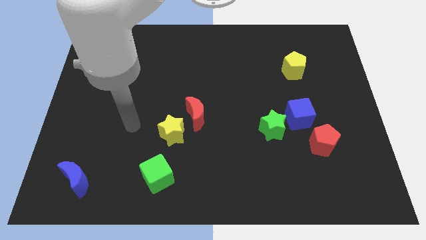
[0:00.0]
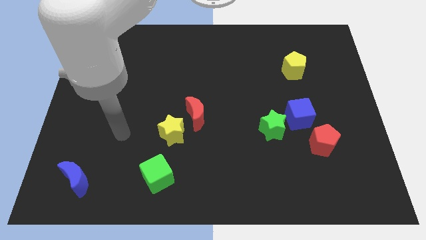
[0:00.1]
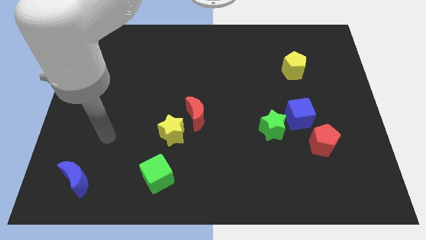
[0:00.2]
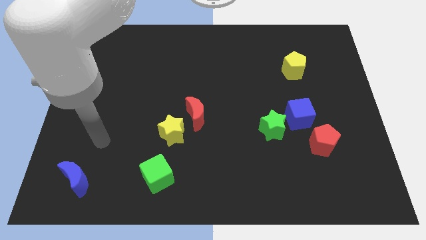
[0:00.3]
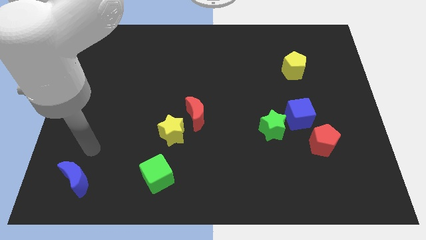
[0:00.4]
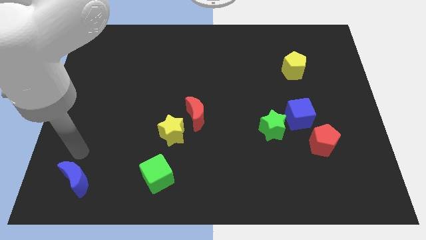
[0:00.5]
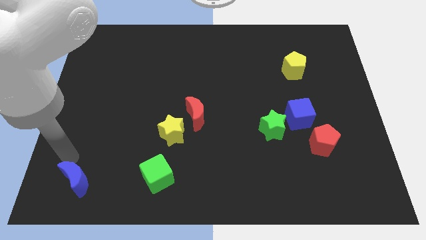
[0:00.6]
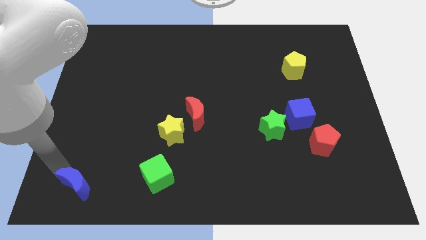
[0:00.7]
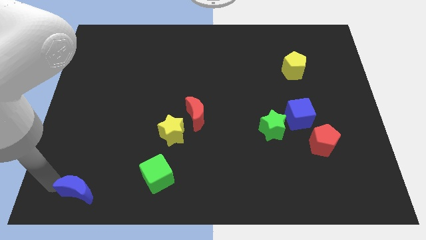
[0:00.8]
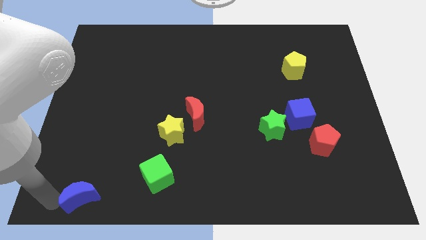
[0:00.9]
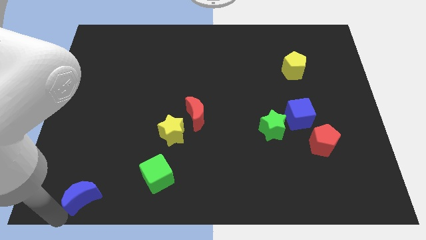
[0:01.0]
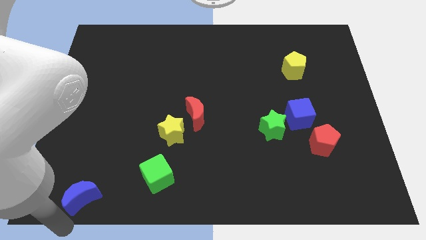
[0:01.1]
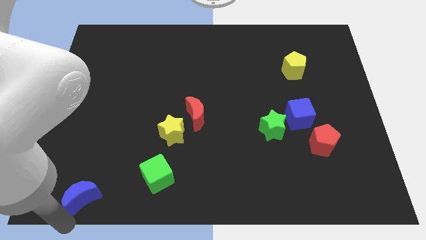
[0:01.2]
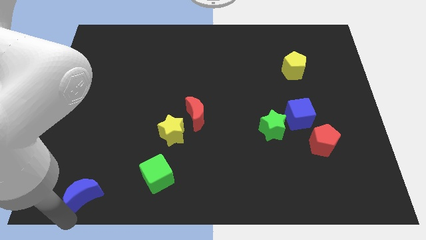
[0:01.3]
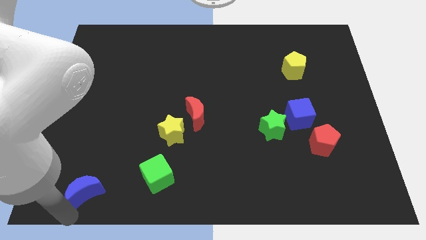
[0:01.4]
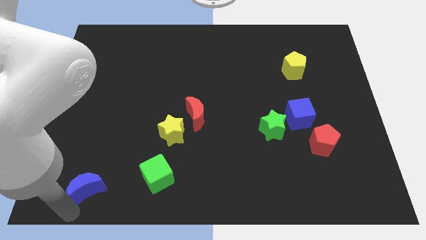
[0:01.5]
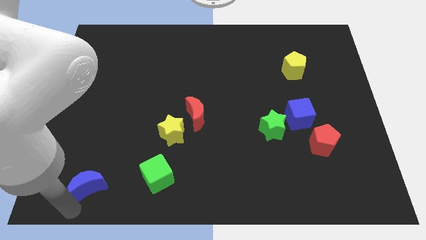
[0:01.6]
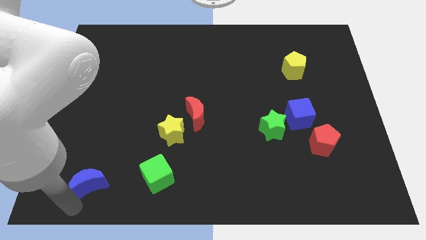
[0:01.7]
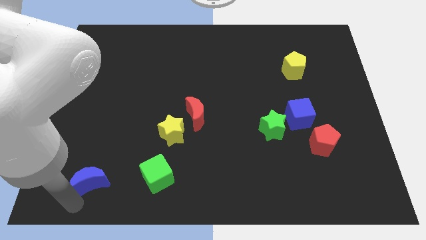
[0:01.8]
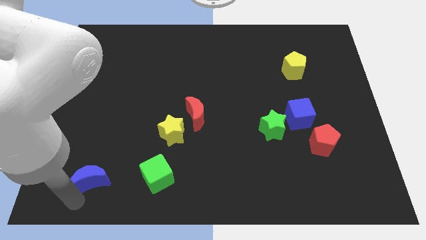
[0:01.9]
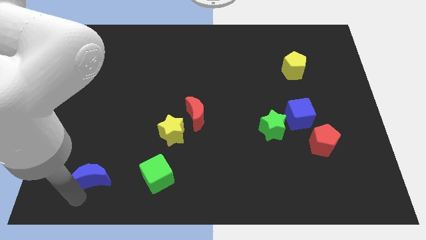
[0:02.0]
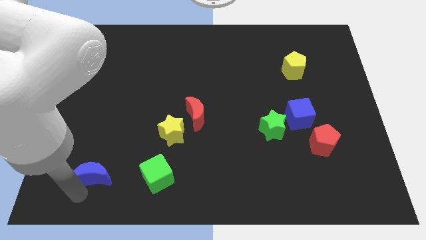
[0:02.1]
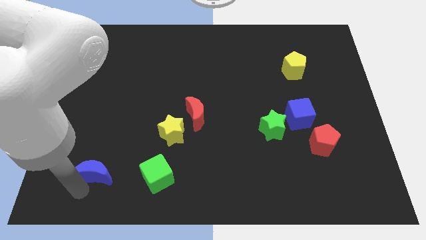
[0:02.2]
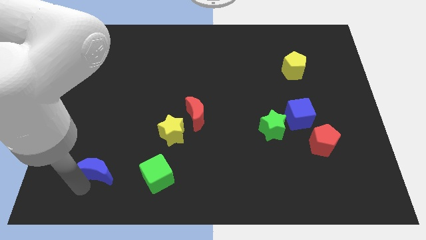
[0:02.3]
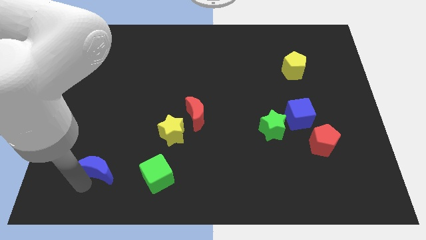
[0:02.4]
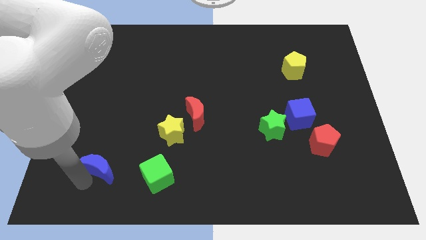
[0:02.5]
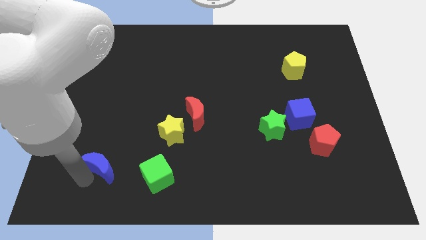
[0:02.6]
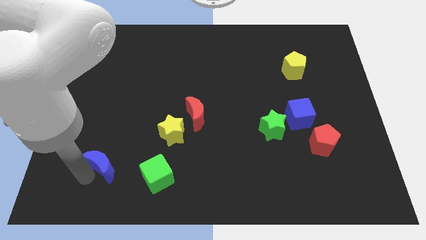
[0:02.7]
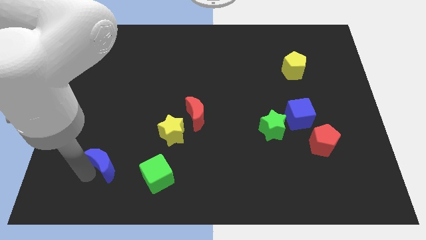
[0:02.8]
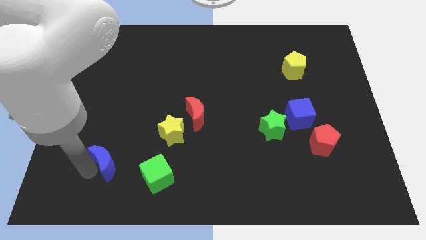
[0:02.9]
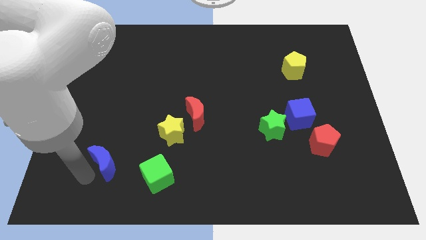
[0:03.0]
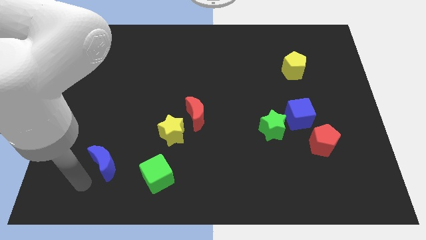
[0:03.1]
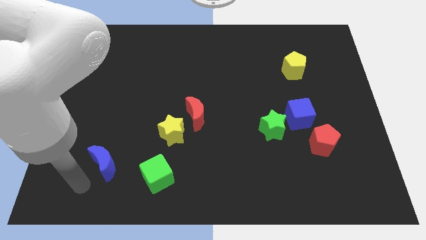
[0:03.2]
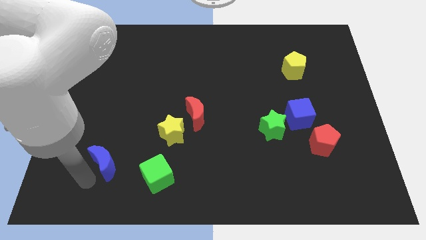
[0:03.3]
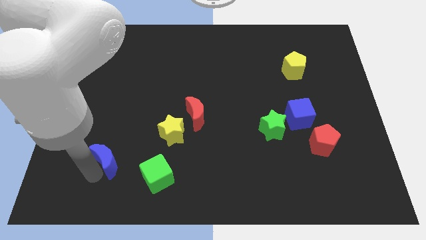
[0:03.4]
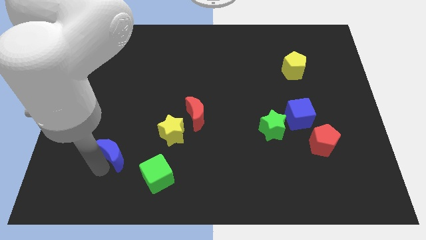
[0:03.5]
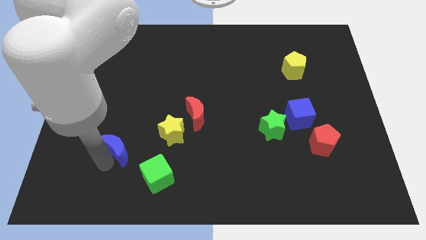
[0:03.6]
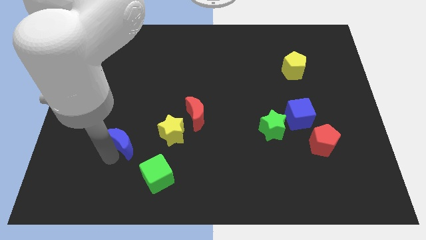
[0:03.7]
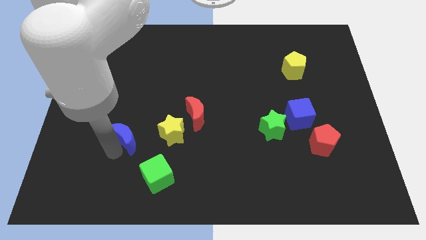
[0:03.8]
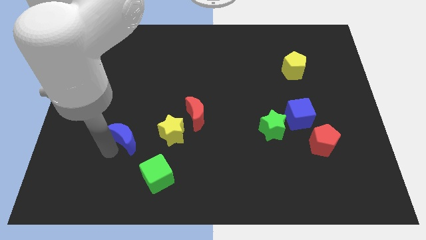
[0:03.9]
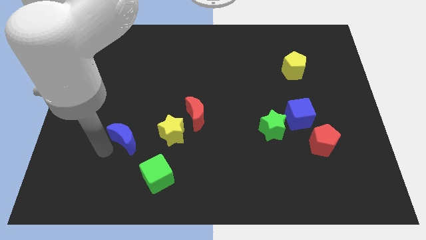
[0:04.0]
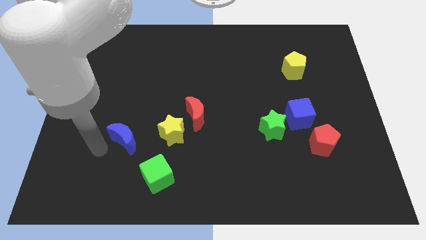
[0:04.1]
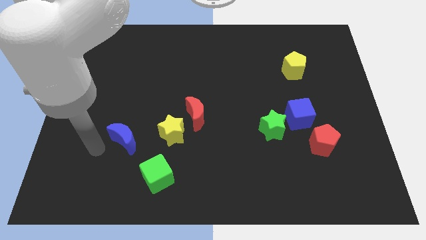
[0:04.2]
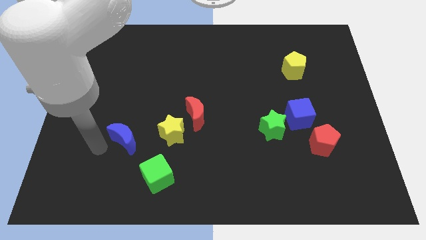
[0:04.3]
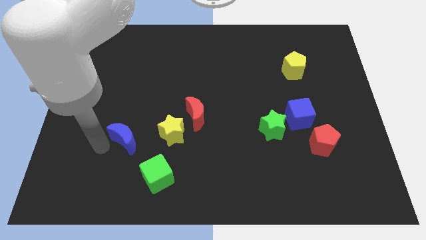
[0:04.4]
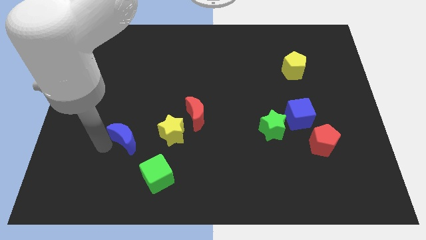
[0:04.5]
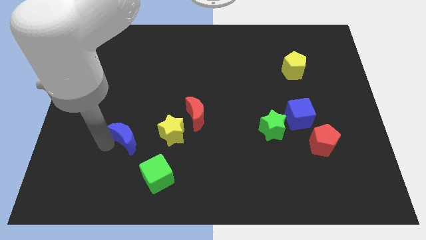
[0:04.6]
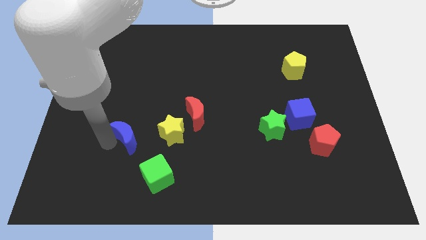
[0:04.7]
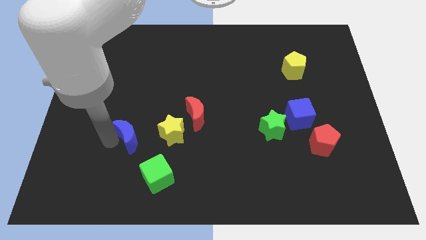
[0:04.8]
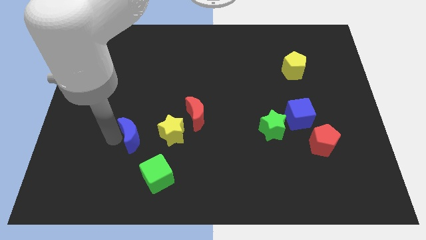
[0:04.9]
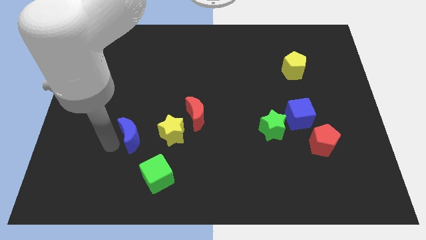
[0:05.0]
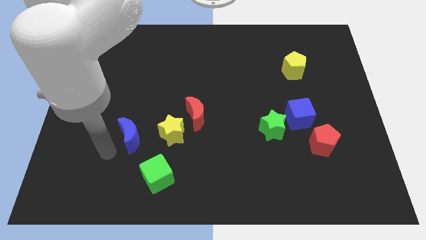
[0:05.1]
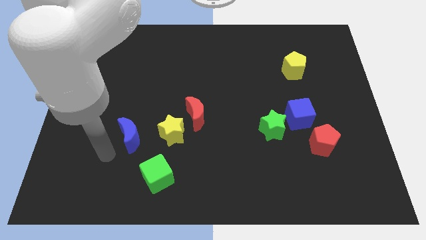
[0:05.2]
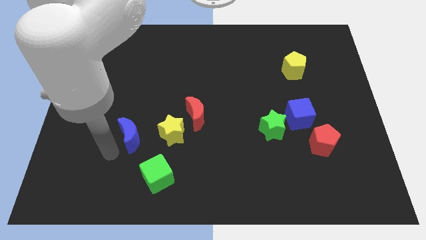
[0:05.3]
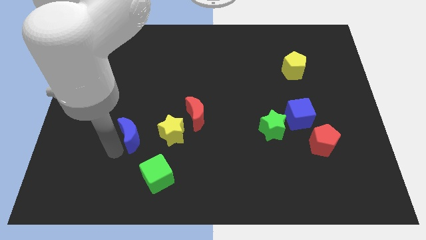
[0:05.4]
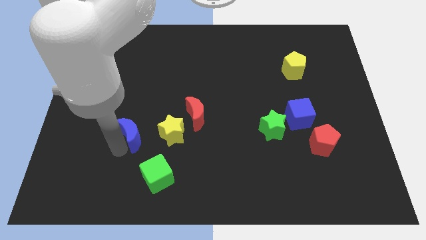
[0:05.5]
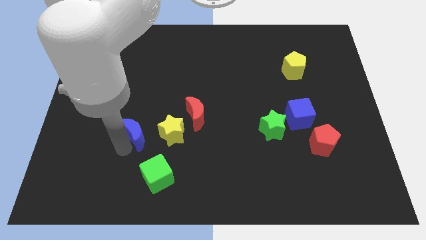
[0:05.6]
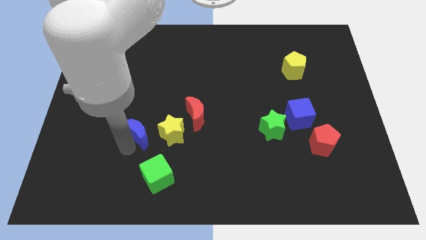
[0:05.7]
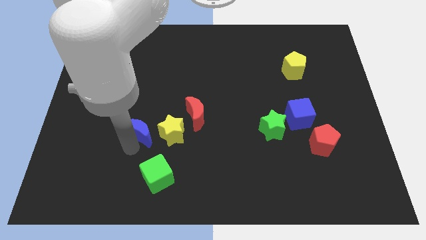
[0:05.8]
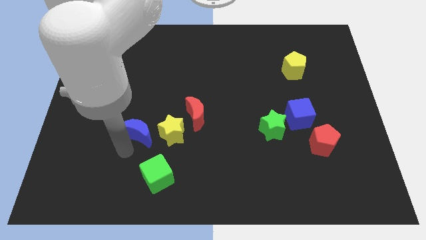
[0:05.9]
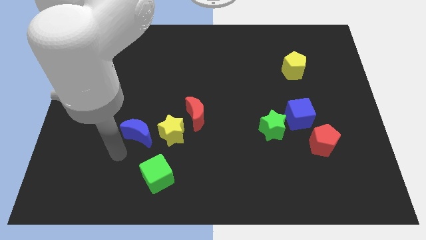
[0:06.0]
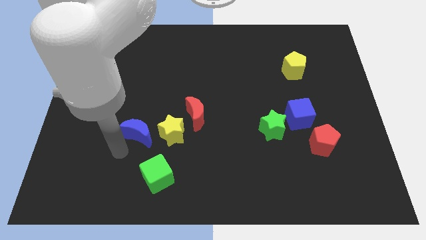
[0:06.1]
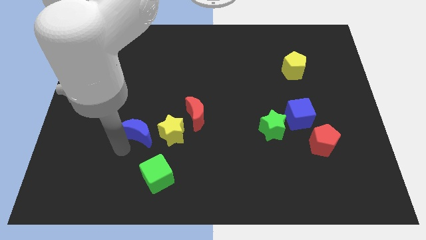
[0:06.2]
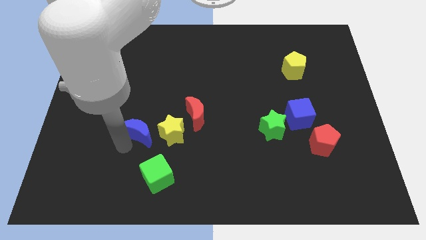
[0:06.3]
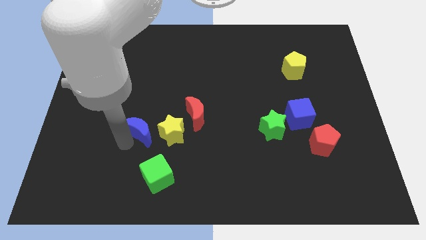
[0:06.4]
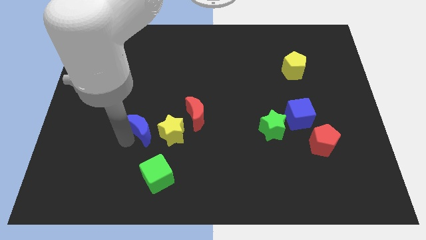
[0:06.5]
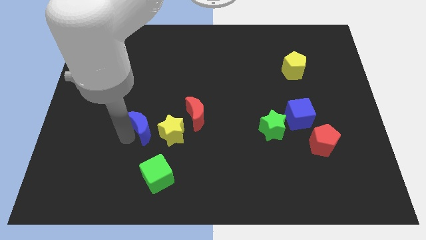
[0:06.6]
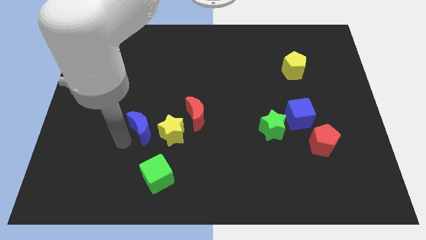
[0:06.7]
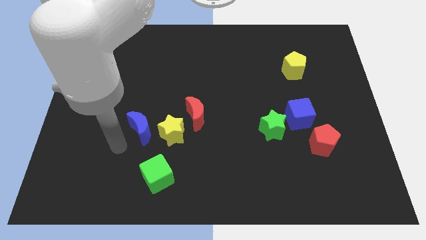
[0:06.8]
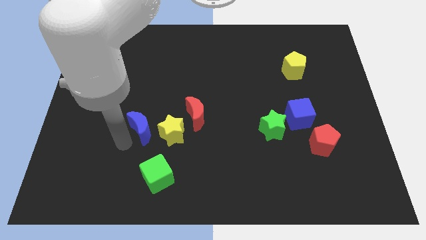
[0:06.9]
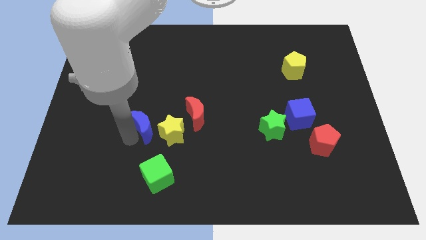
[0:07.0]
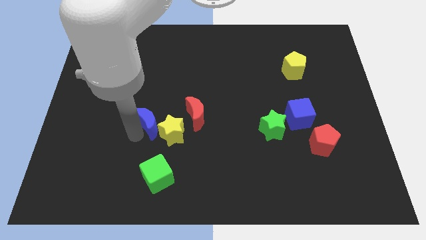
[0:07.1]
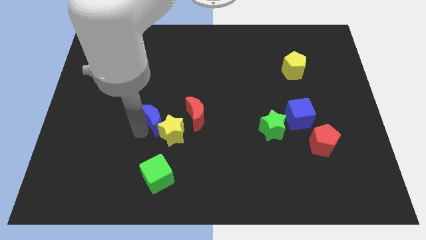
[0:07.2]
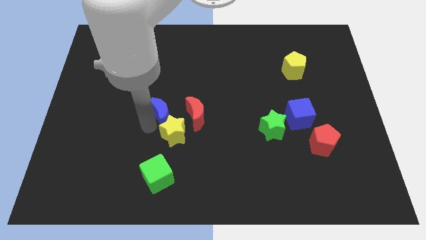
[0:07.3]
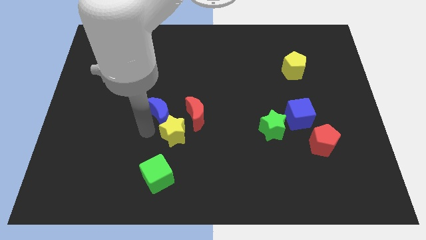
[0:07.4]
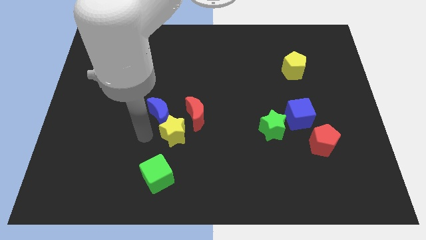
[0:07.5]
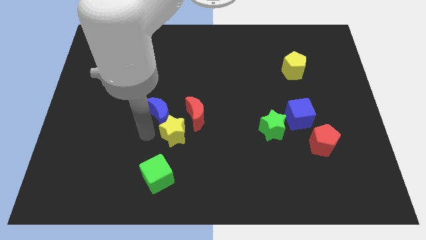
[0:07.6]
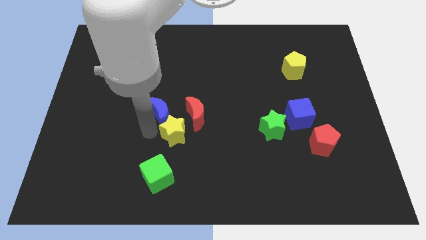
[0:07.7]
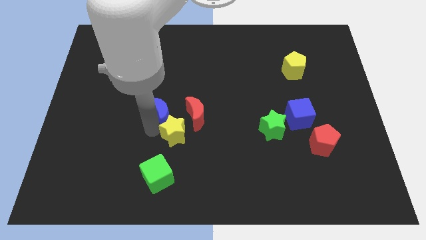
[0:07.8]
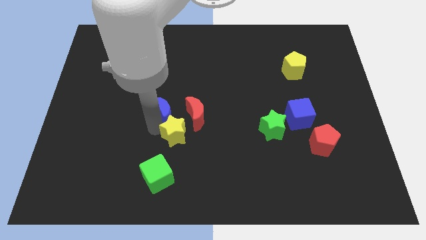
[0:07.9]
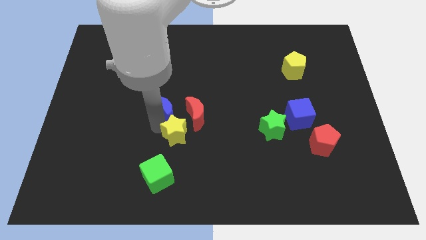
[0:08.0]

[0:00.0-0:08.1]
move the blue moon to the top left of the red moon
